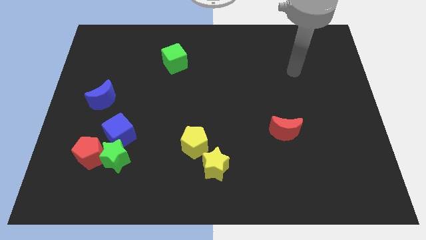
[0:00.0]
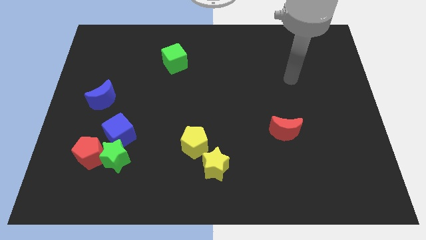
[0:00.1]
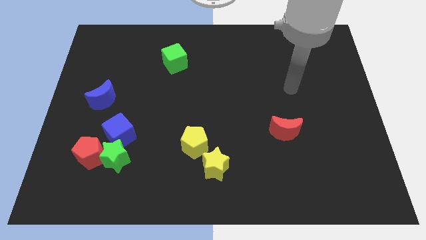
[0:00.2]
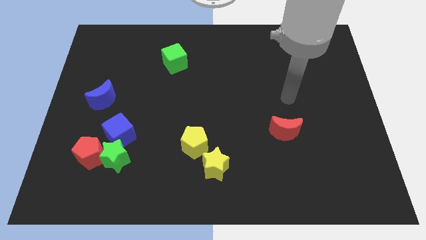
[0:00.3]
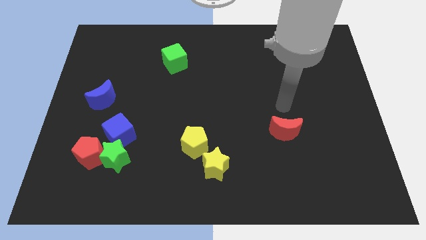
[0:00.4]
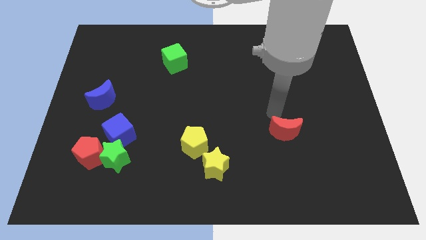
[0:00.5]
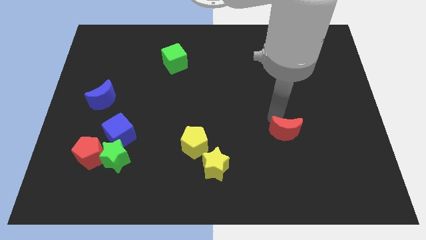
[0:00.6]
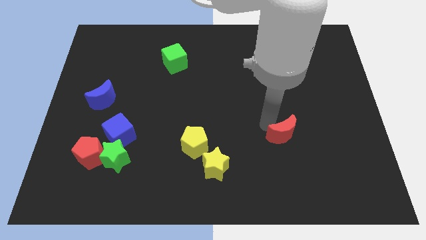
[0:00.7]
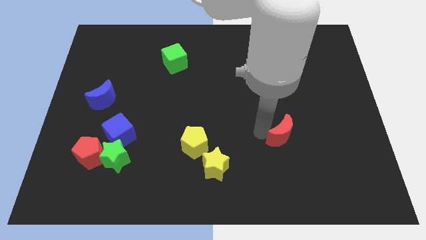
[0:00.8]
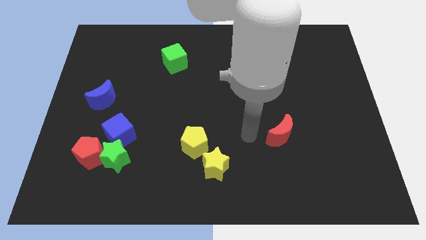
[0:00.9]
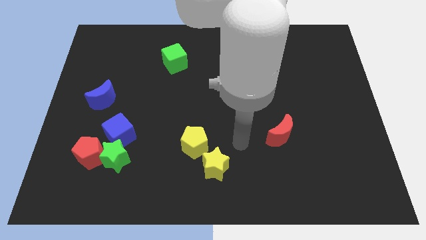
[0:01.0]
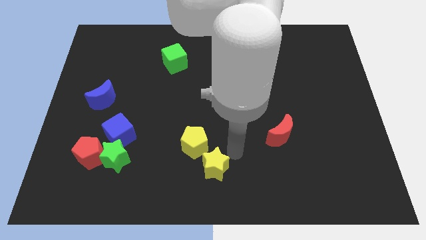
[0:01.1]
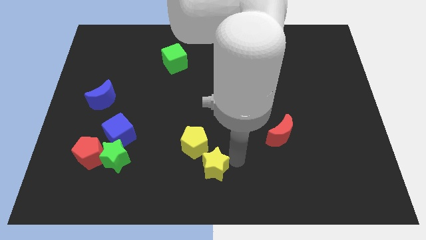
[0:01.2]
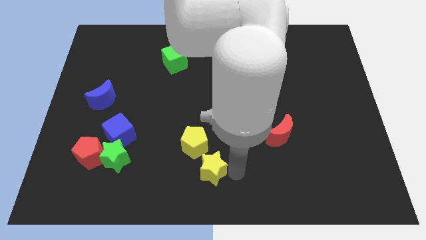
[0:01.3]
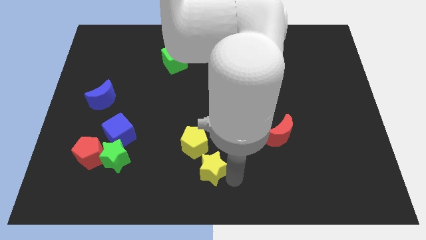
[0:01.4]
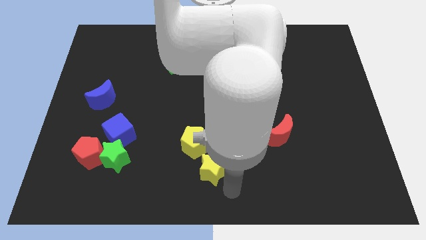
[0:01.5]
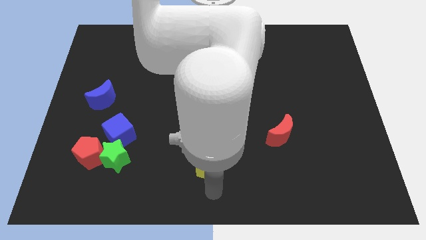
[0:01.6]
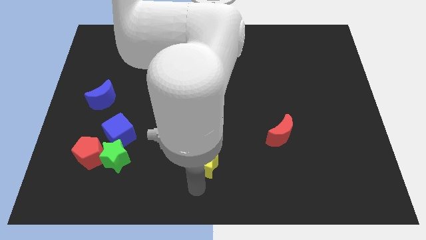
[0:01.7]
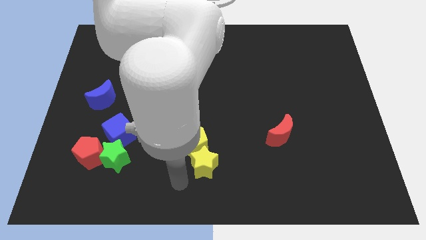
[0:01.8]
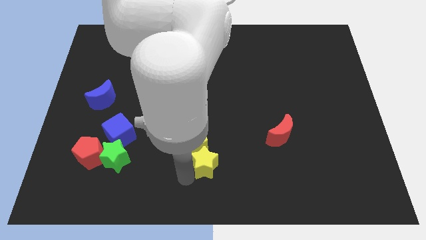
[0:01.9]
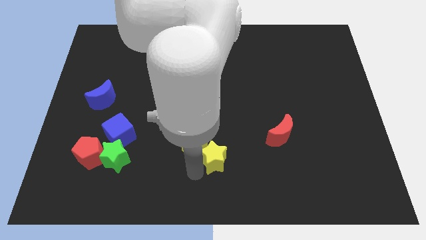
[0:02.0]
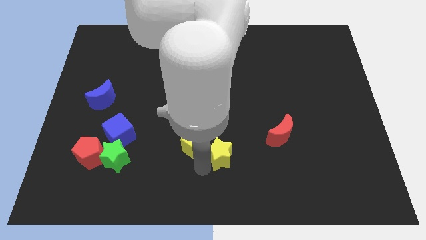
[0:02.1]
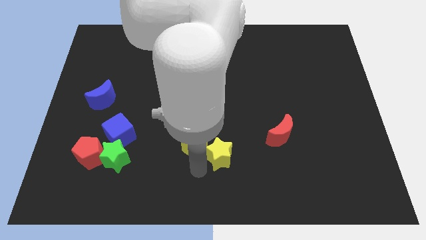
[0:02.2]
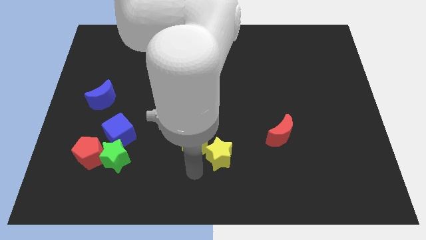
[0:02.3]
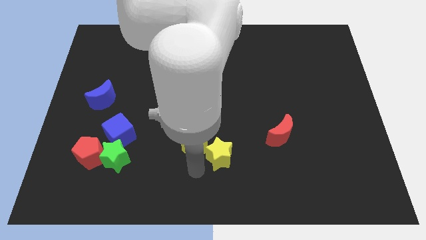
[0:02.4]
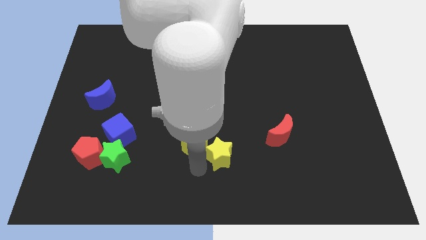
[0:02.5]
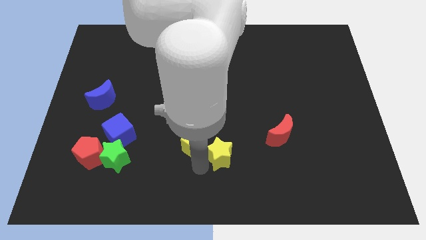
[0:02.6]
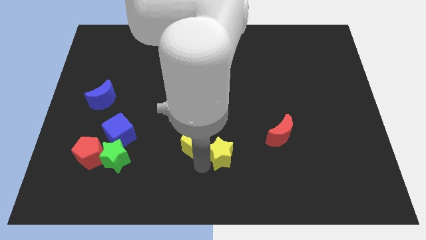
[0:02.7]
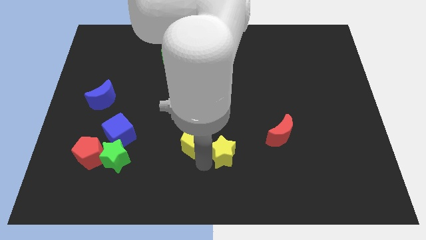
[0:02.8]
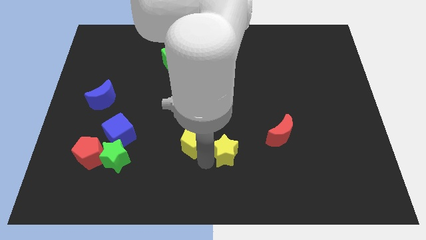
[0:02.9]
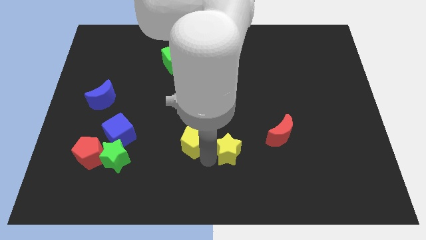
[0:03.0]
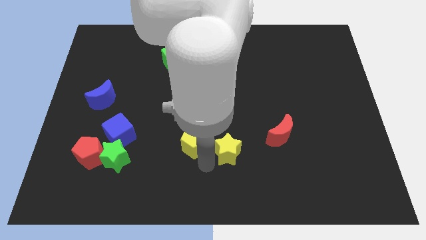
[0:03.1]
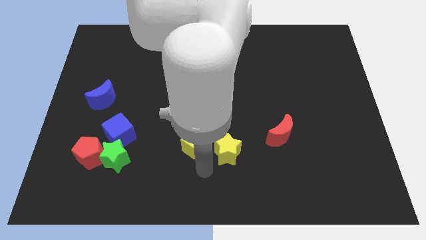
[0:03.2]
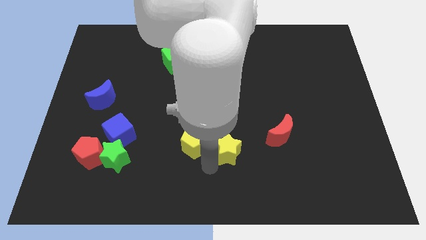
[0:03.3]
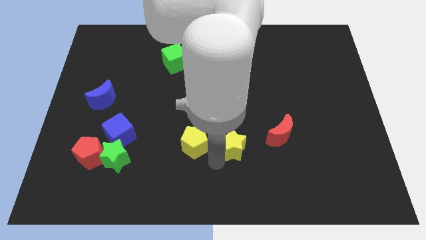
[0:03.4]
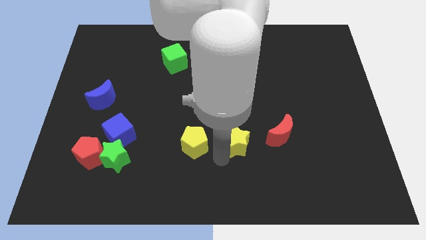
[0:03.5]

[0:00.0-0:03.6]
slightly move the yellow star up and right diagonally

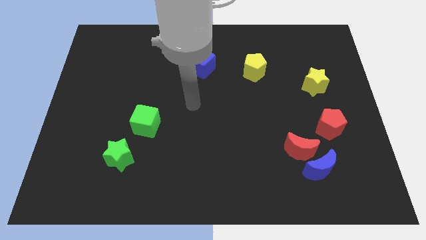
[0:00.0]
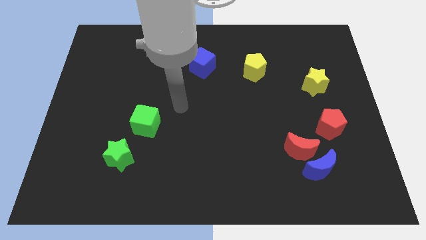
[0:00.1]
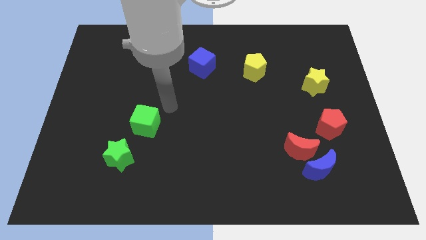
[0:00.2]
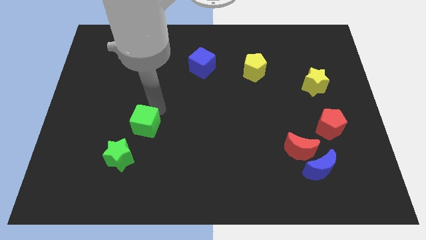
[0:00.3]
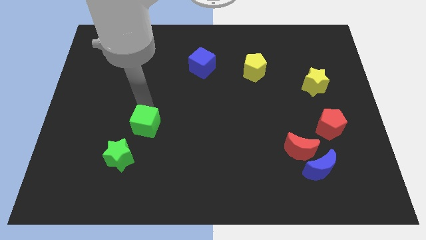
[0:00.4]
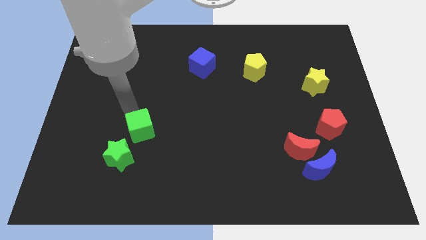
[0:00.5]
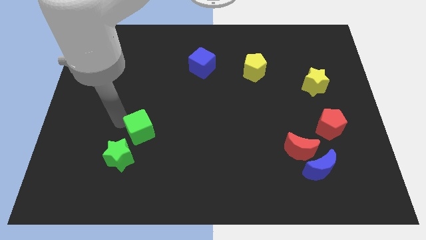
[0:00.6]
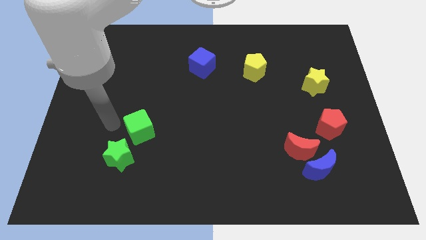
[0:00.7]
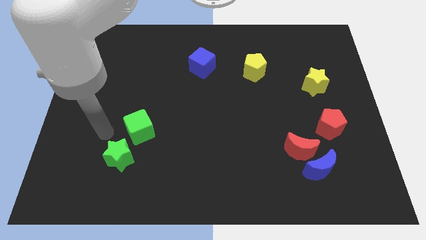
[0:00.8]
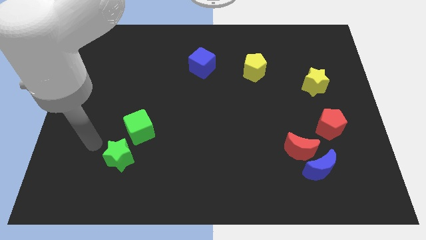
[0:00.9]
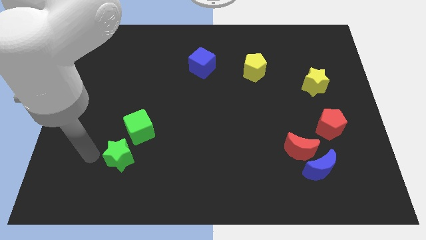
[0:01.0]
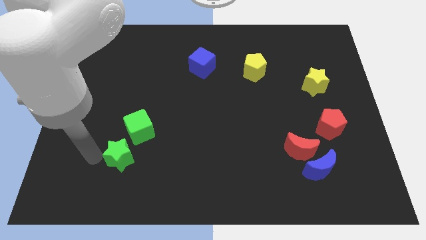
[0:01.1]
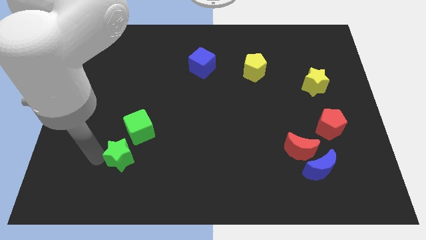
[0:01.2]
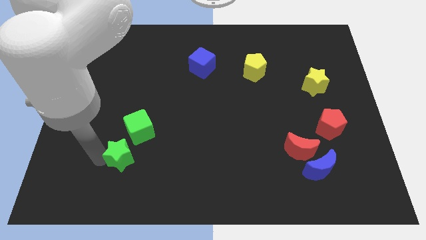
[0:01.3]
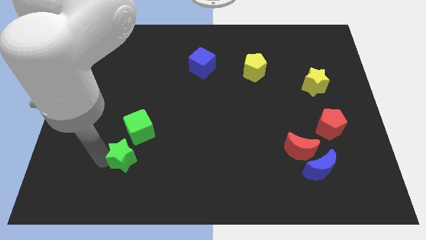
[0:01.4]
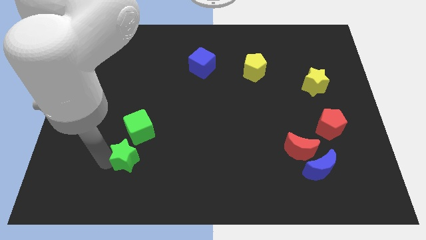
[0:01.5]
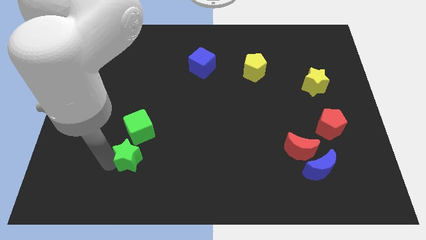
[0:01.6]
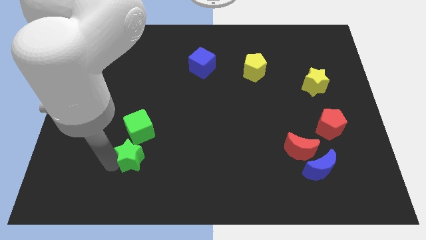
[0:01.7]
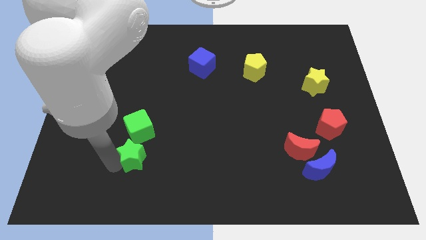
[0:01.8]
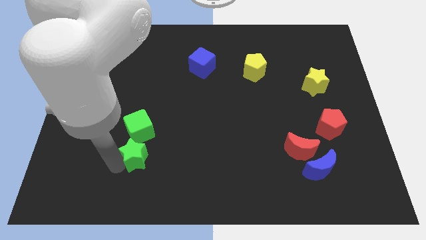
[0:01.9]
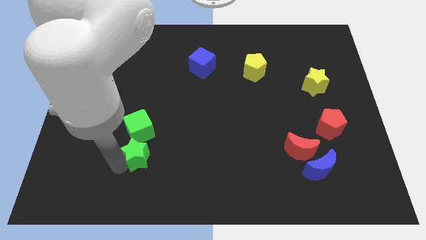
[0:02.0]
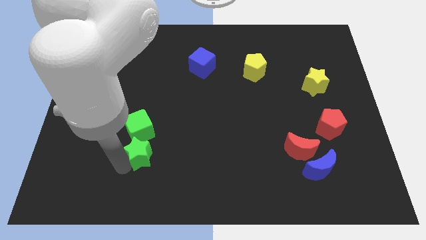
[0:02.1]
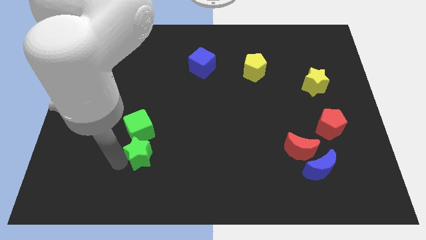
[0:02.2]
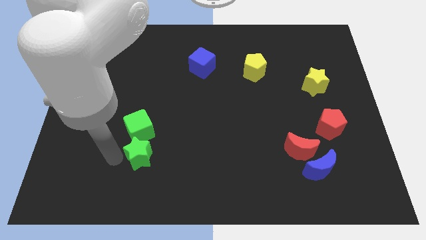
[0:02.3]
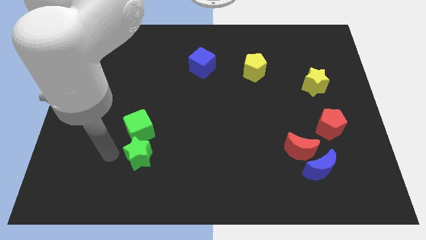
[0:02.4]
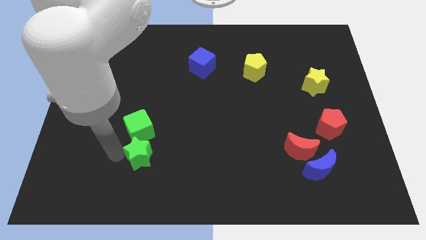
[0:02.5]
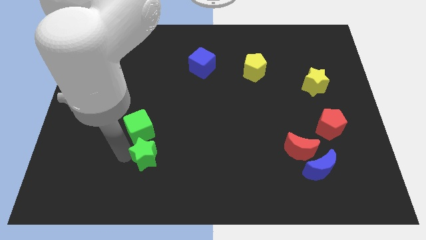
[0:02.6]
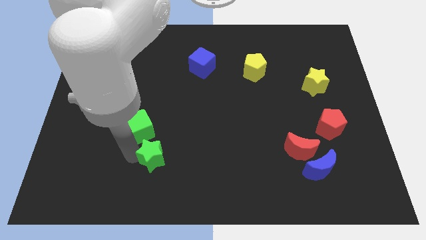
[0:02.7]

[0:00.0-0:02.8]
move the green star a little bit to the right

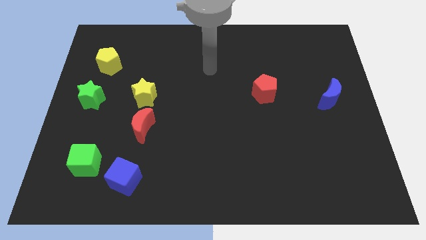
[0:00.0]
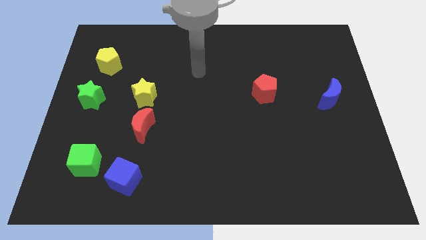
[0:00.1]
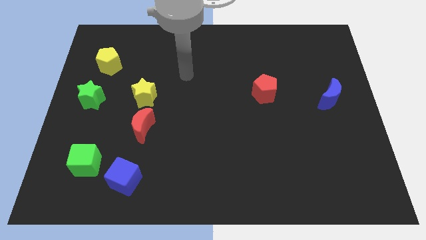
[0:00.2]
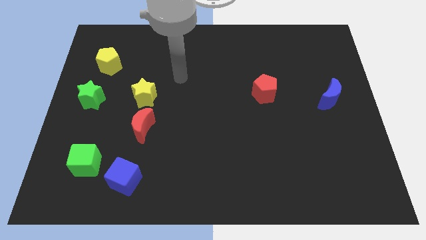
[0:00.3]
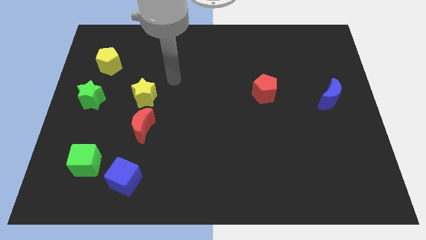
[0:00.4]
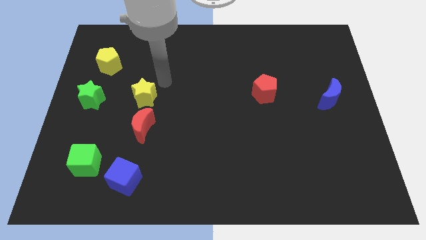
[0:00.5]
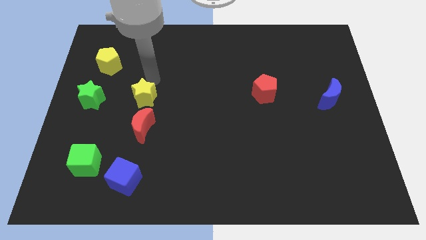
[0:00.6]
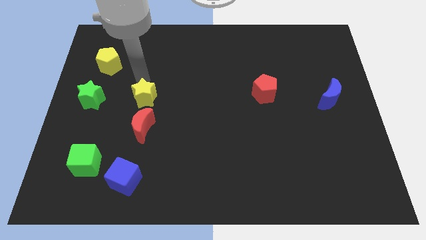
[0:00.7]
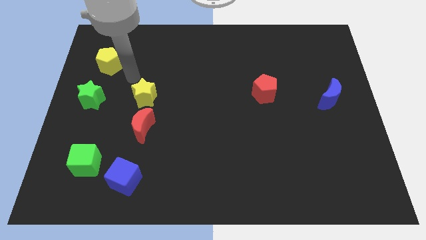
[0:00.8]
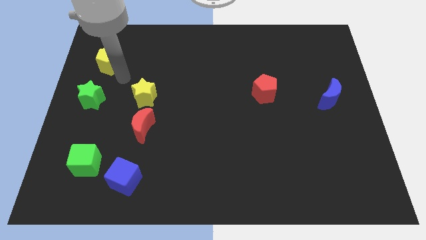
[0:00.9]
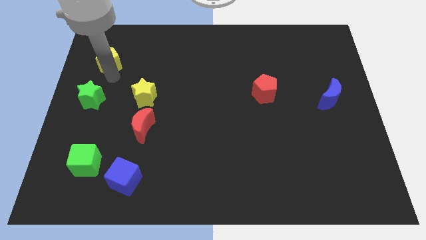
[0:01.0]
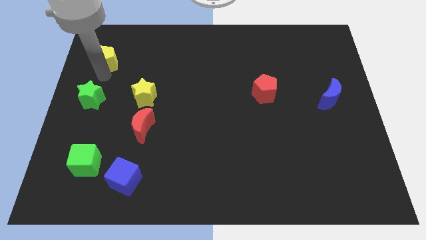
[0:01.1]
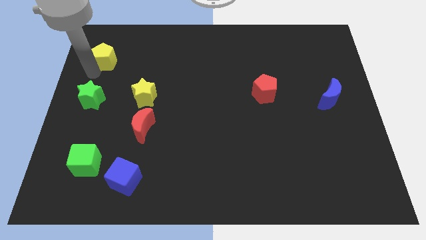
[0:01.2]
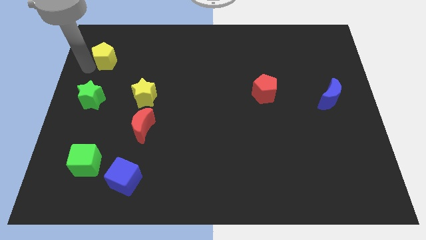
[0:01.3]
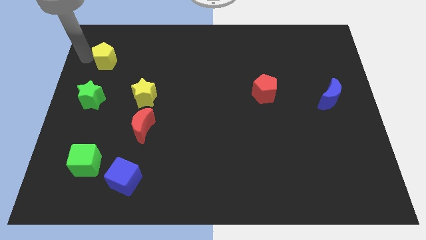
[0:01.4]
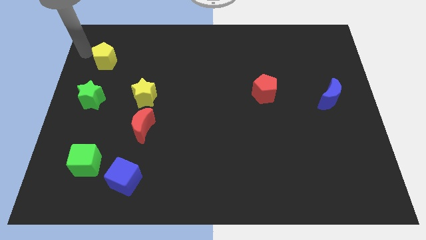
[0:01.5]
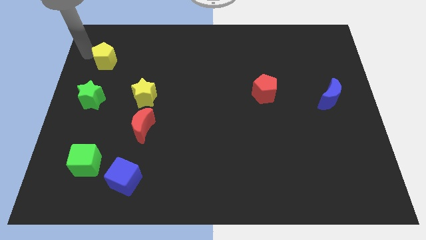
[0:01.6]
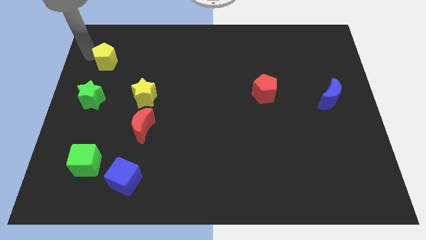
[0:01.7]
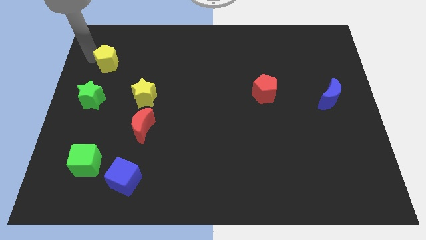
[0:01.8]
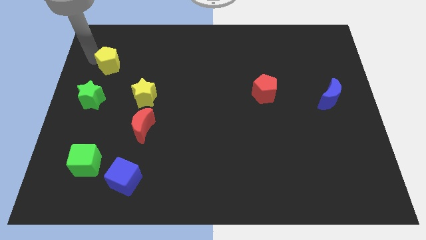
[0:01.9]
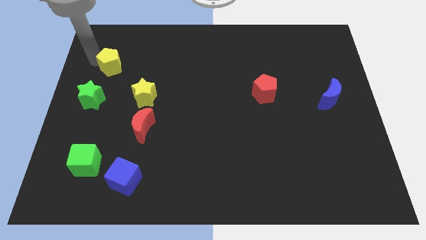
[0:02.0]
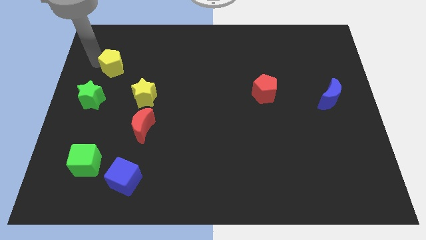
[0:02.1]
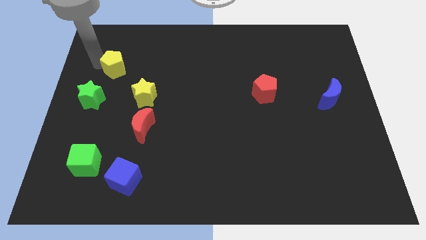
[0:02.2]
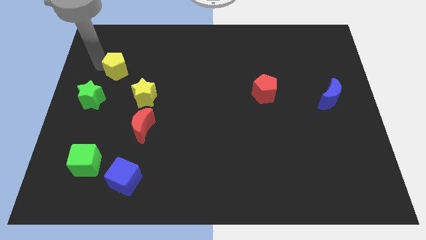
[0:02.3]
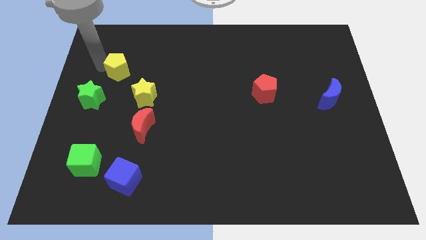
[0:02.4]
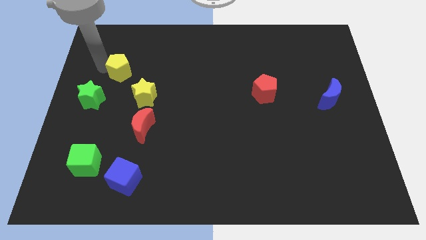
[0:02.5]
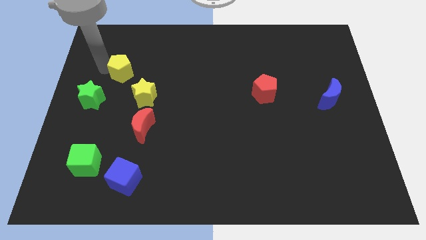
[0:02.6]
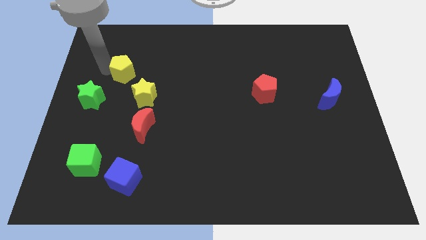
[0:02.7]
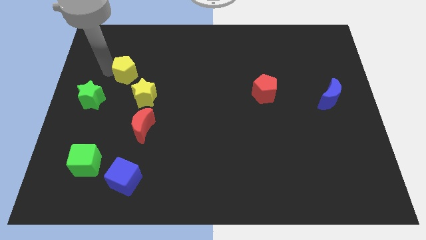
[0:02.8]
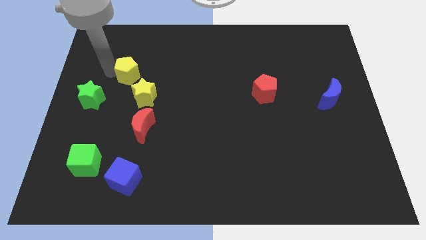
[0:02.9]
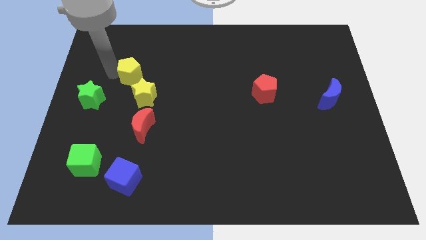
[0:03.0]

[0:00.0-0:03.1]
slide the yellow pentagon a little bit diagonally down and right
